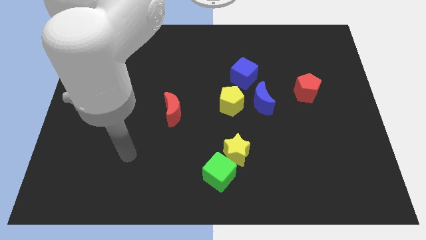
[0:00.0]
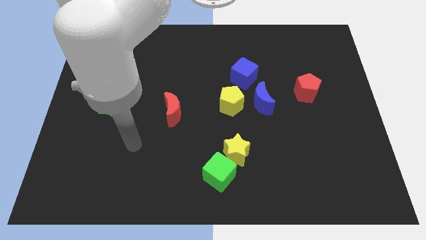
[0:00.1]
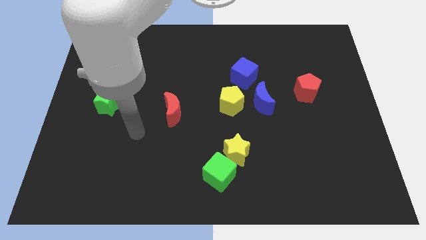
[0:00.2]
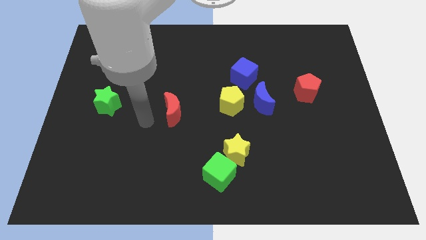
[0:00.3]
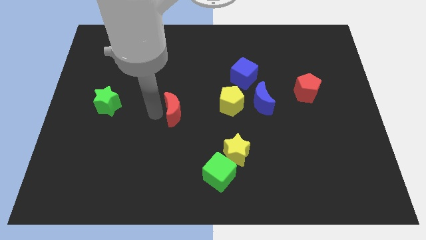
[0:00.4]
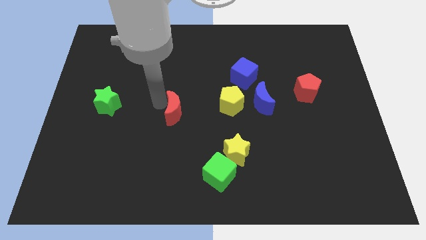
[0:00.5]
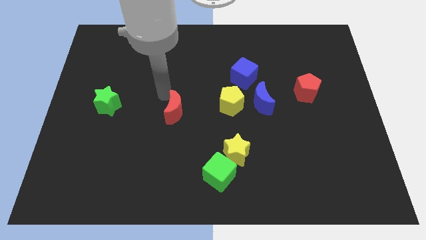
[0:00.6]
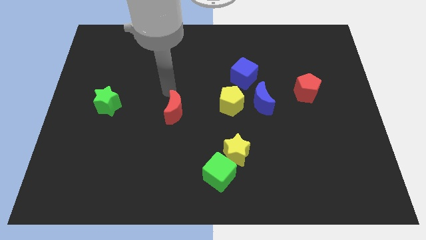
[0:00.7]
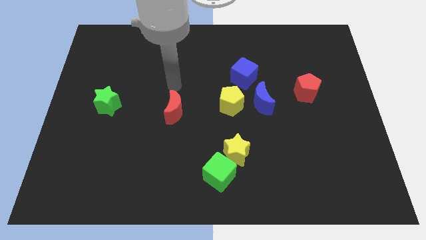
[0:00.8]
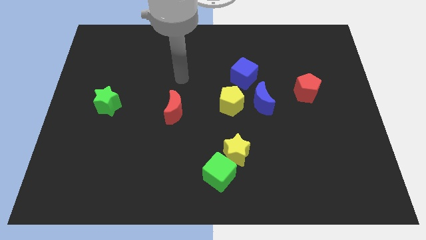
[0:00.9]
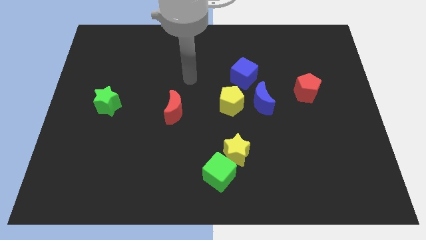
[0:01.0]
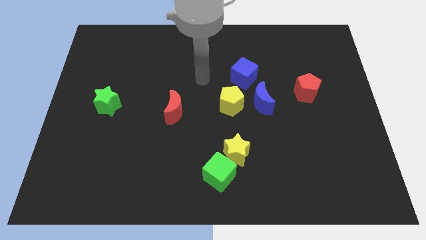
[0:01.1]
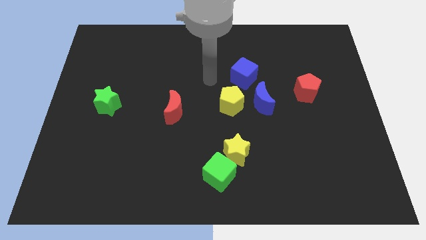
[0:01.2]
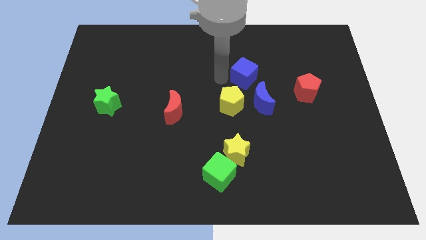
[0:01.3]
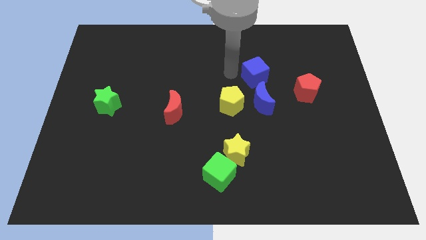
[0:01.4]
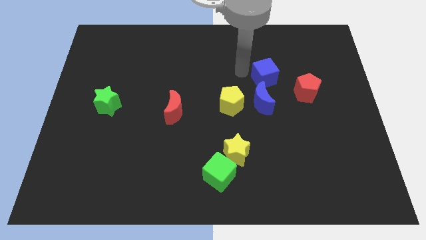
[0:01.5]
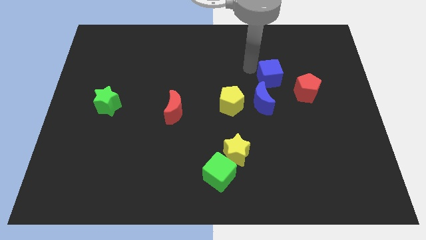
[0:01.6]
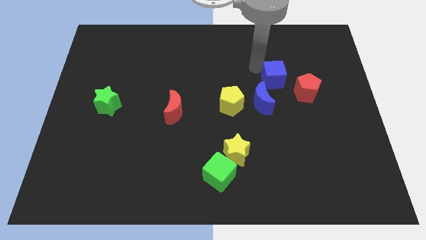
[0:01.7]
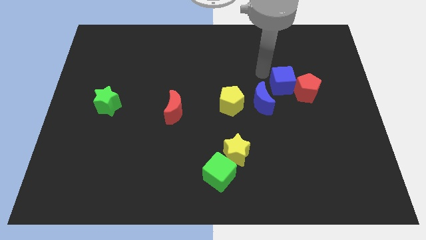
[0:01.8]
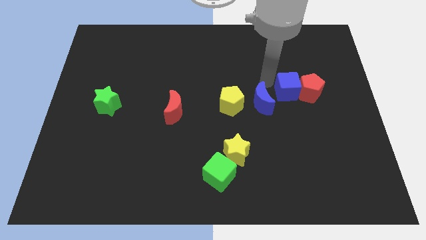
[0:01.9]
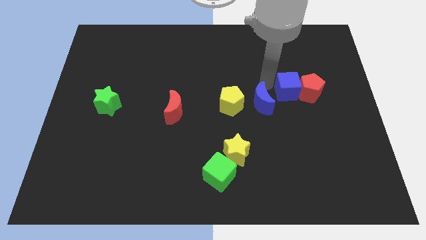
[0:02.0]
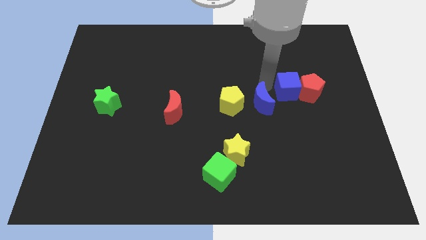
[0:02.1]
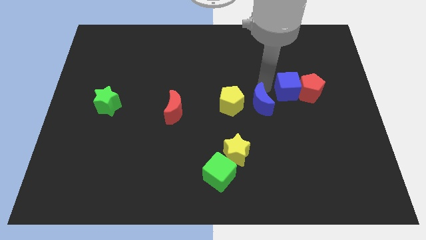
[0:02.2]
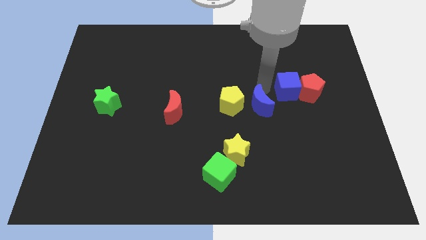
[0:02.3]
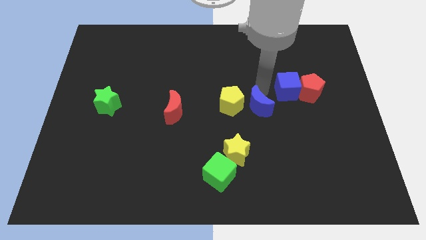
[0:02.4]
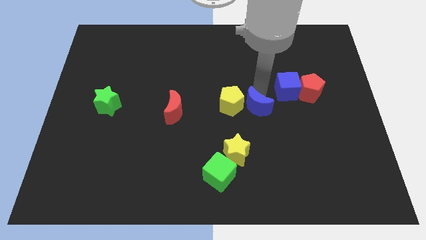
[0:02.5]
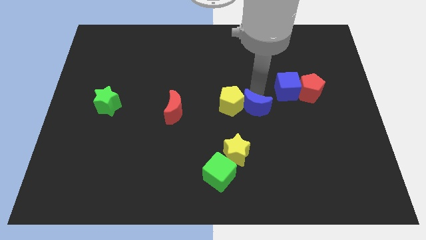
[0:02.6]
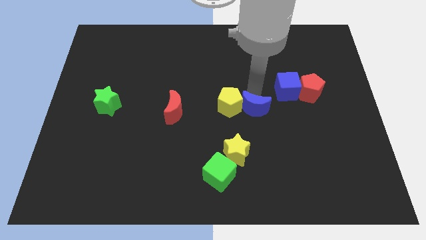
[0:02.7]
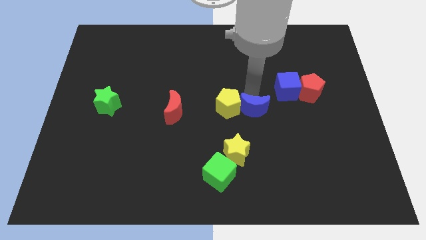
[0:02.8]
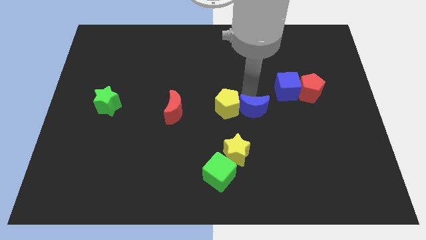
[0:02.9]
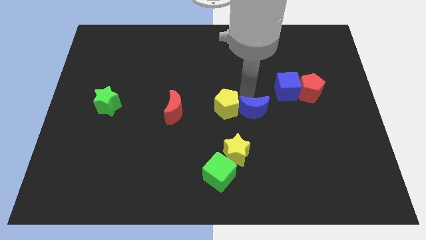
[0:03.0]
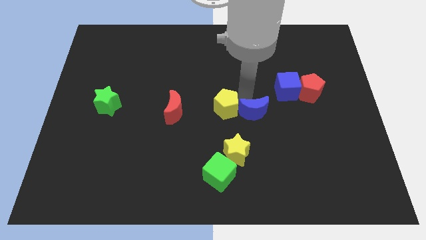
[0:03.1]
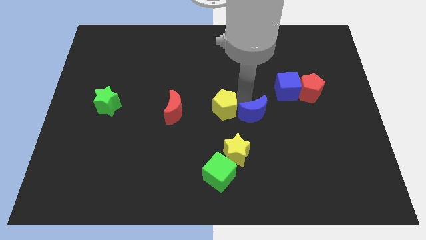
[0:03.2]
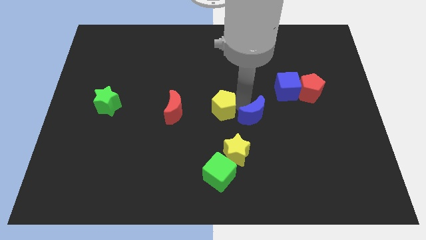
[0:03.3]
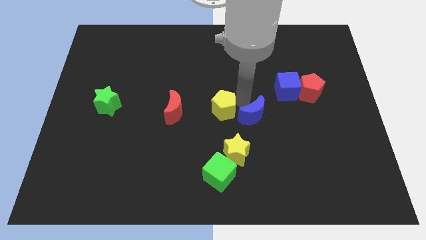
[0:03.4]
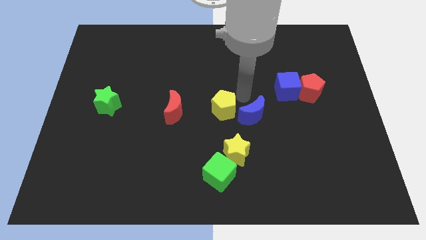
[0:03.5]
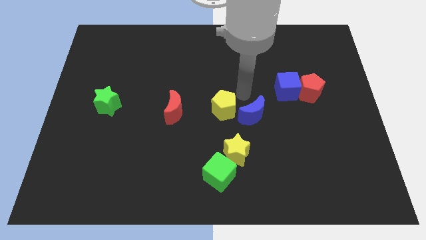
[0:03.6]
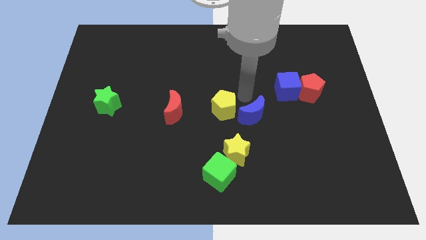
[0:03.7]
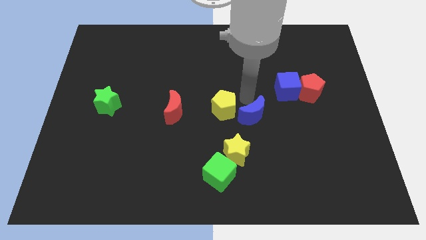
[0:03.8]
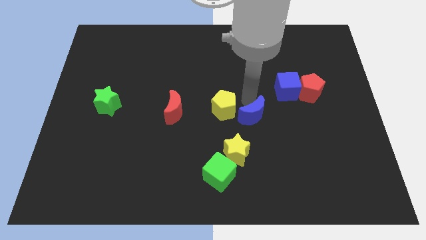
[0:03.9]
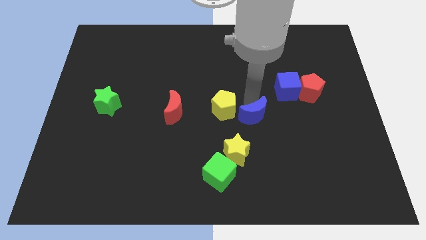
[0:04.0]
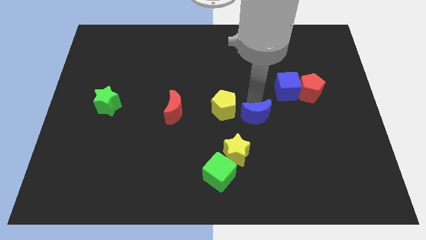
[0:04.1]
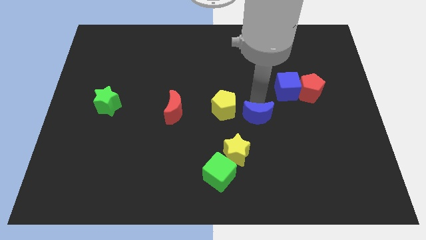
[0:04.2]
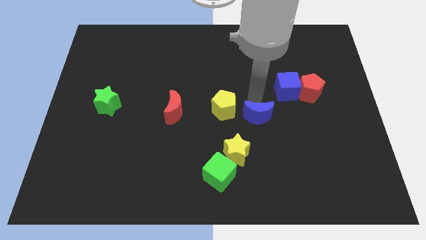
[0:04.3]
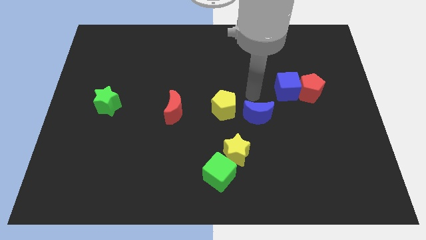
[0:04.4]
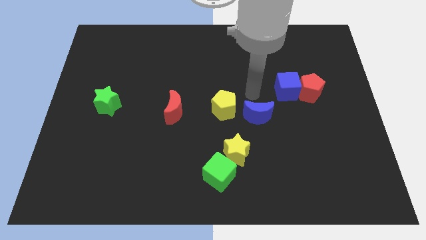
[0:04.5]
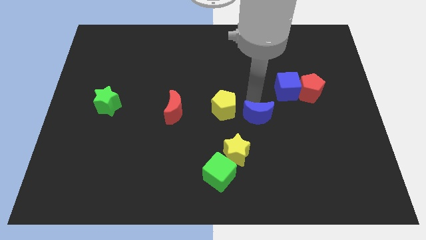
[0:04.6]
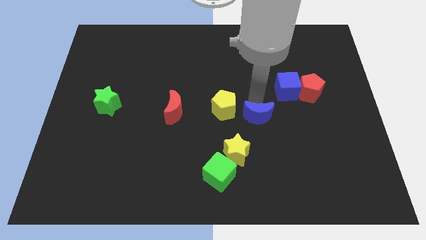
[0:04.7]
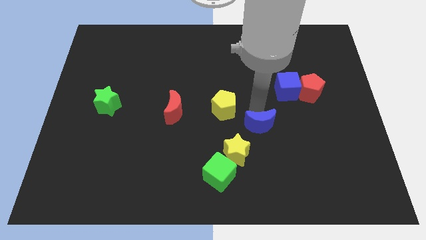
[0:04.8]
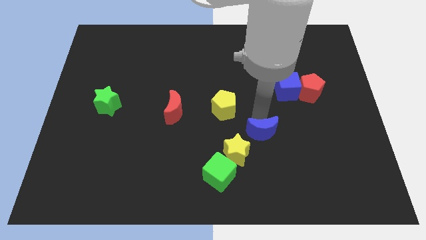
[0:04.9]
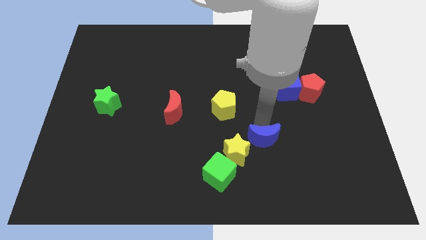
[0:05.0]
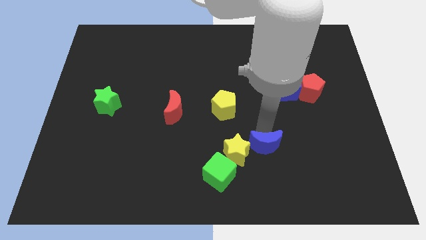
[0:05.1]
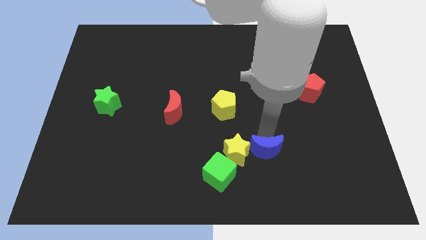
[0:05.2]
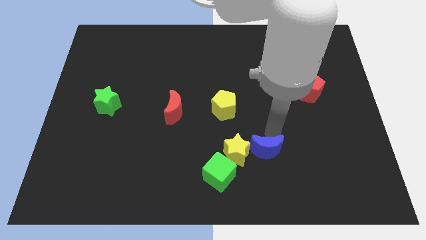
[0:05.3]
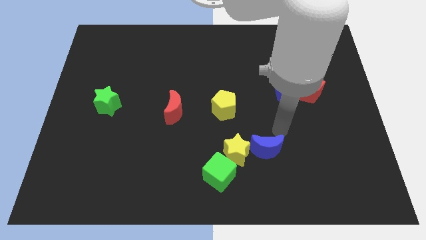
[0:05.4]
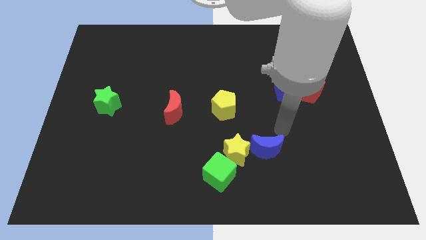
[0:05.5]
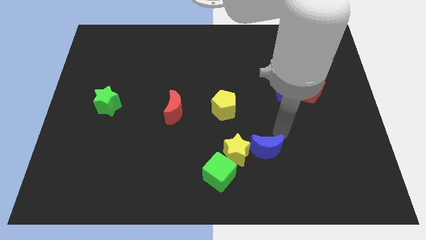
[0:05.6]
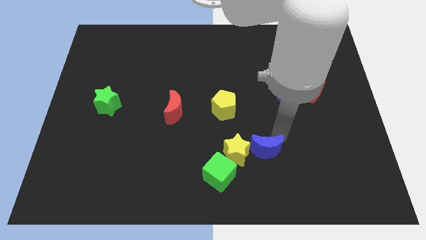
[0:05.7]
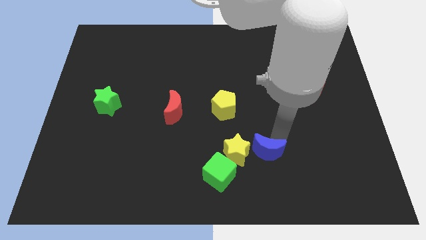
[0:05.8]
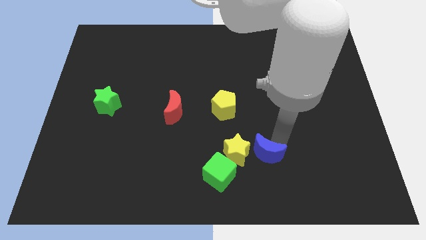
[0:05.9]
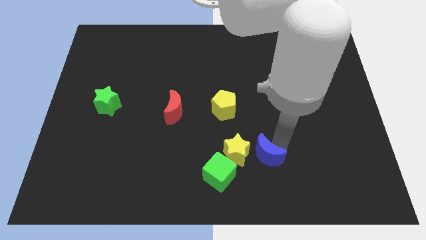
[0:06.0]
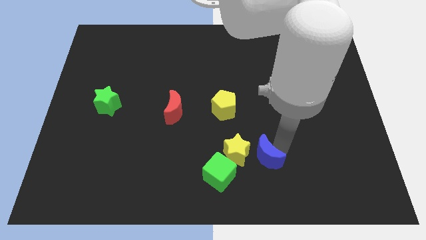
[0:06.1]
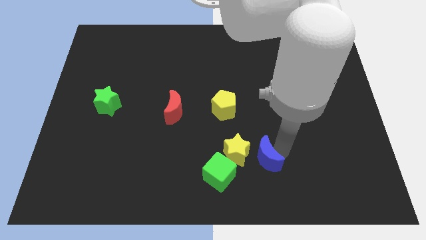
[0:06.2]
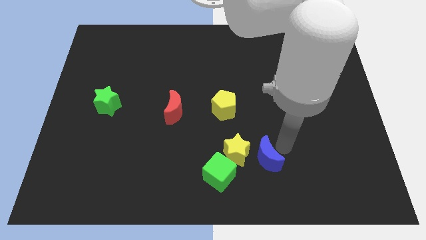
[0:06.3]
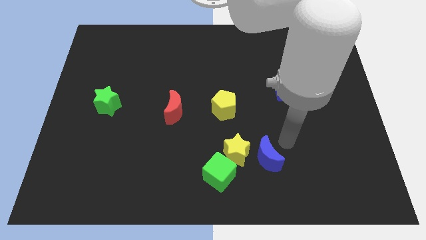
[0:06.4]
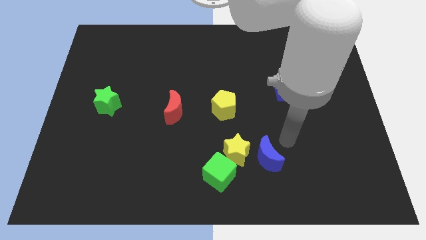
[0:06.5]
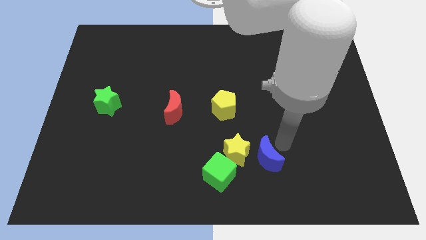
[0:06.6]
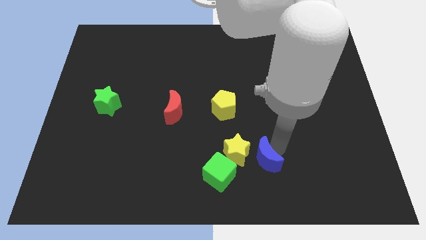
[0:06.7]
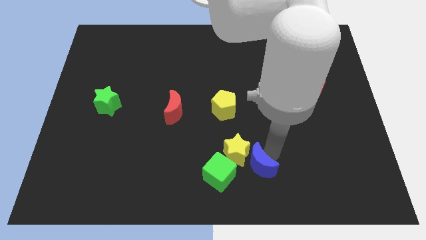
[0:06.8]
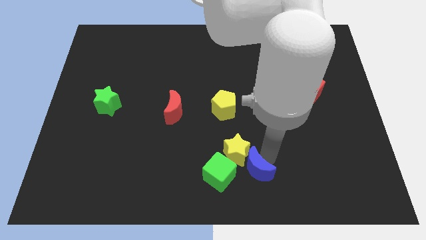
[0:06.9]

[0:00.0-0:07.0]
put the blue moon to the bottom side
